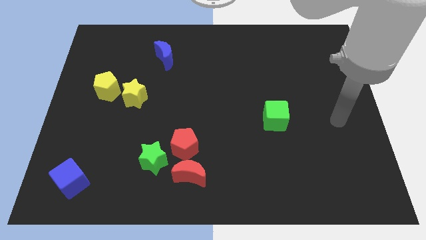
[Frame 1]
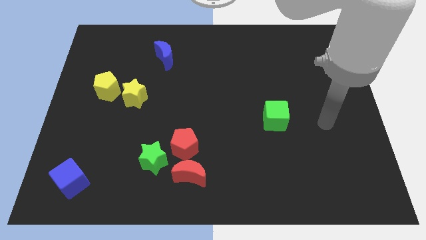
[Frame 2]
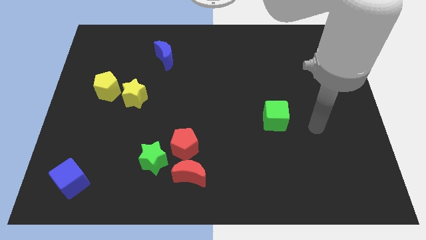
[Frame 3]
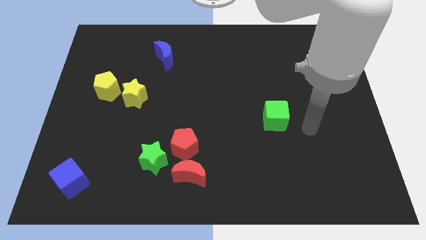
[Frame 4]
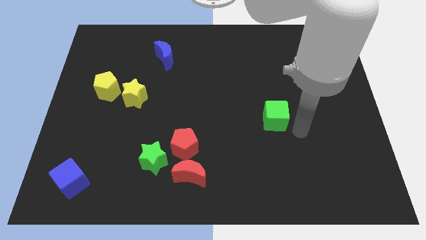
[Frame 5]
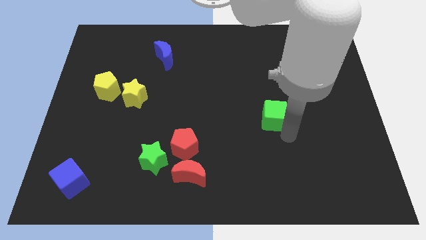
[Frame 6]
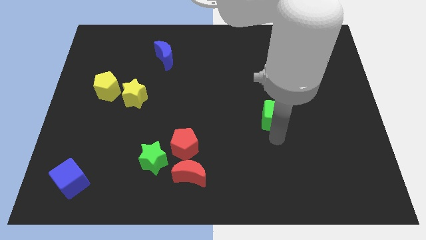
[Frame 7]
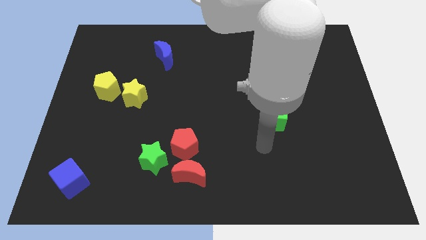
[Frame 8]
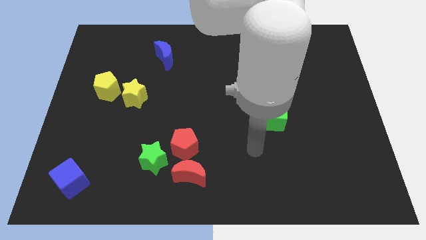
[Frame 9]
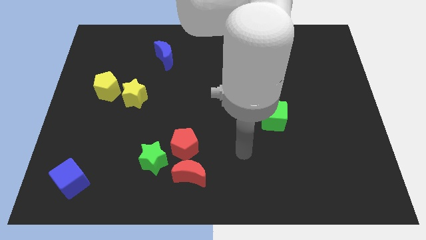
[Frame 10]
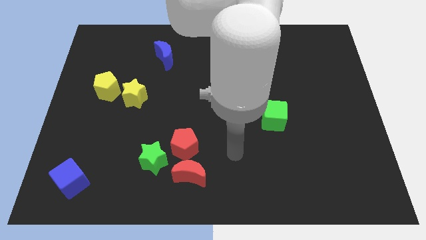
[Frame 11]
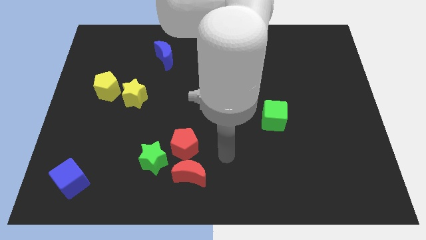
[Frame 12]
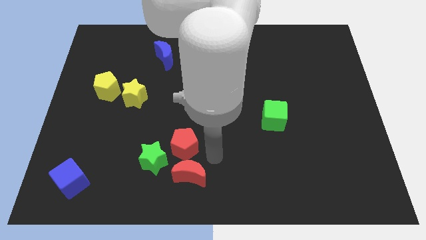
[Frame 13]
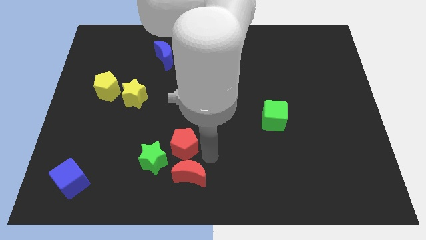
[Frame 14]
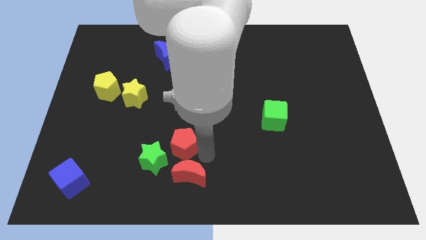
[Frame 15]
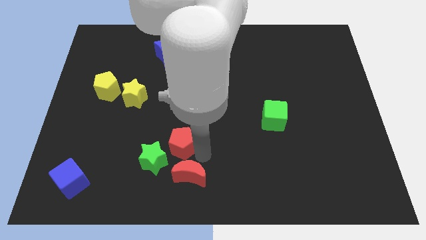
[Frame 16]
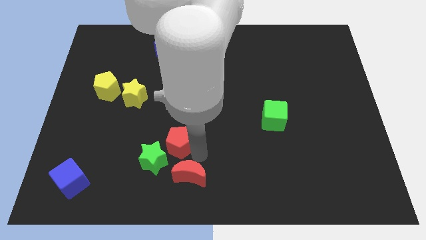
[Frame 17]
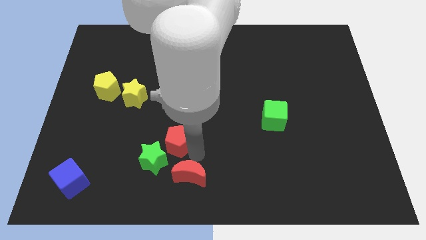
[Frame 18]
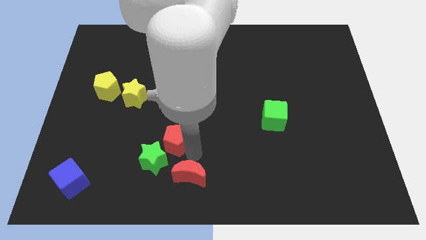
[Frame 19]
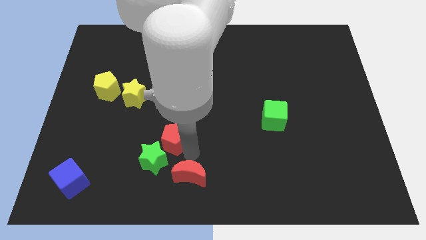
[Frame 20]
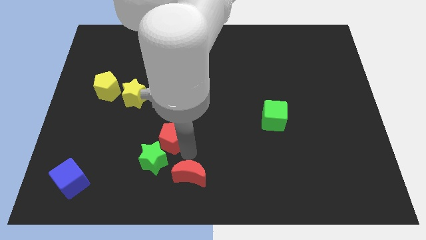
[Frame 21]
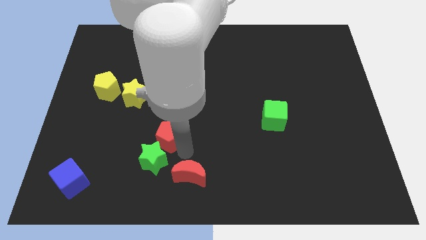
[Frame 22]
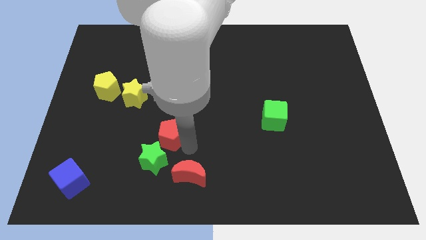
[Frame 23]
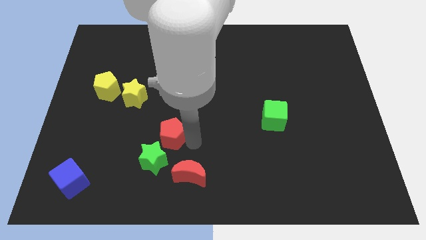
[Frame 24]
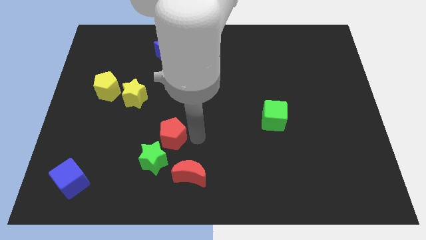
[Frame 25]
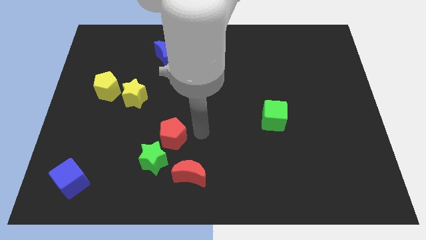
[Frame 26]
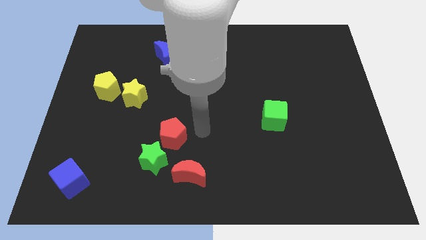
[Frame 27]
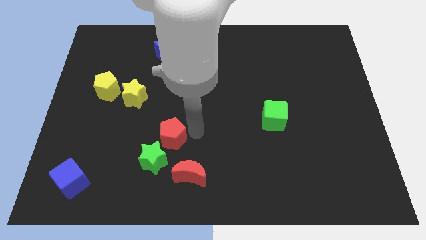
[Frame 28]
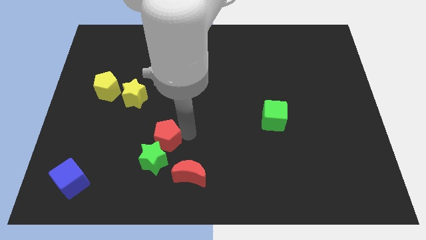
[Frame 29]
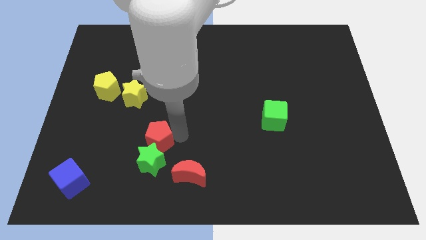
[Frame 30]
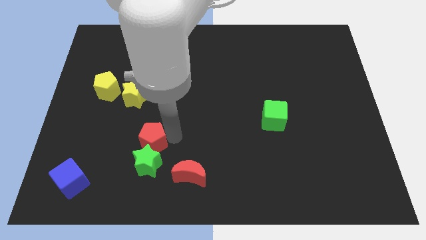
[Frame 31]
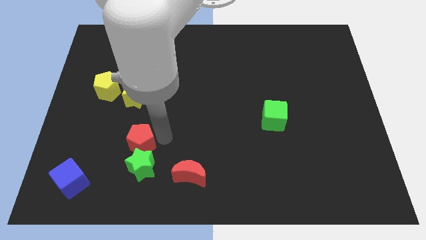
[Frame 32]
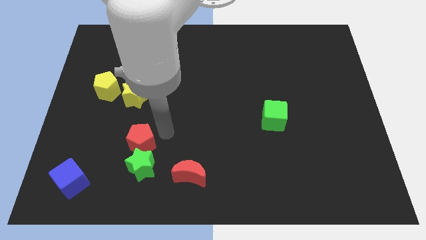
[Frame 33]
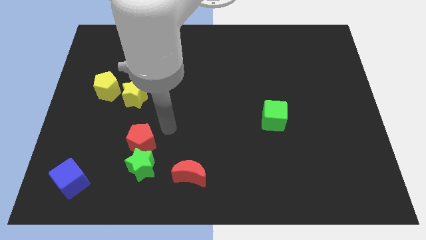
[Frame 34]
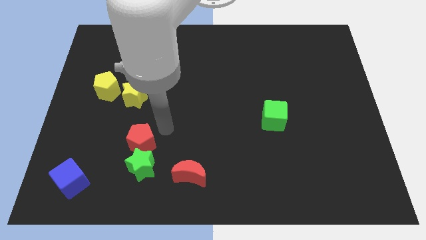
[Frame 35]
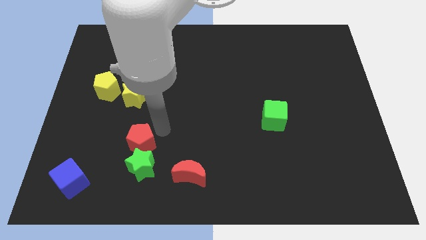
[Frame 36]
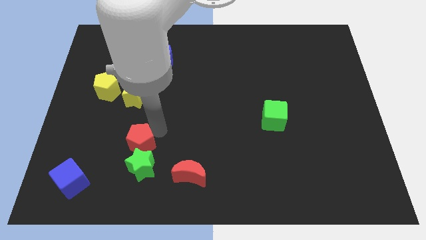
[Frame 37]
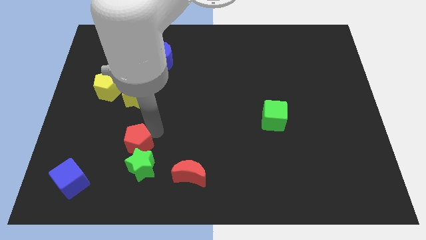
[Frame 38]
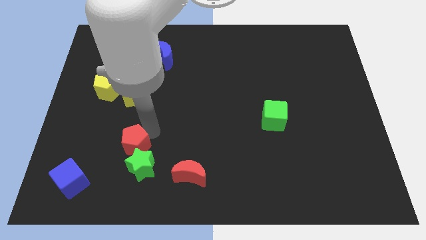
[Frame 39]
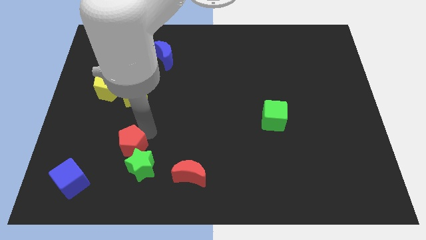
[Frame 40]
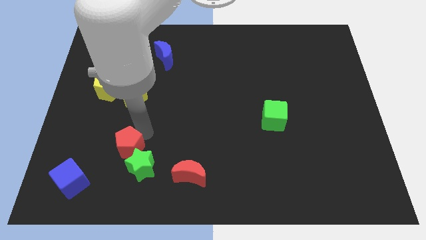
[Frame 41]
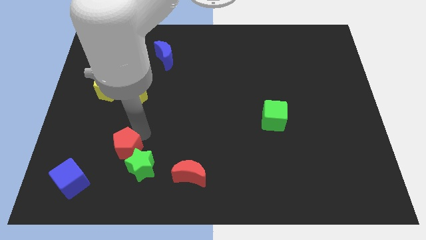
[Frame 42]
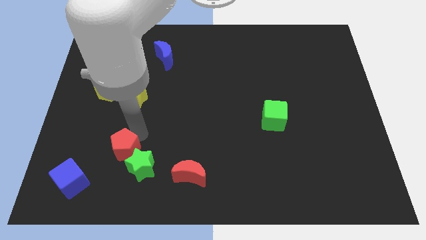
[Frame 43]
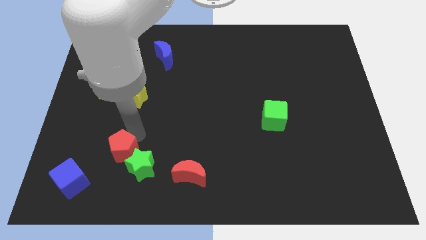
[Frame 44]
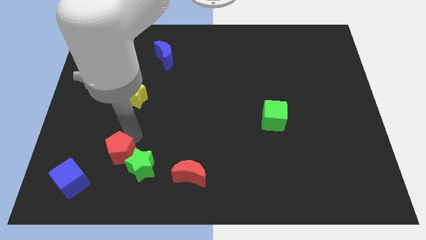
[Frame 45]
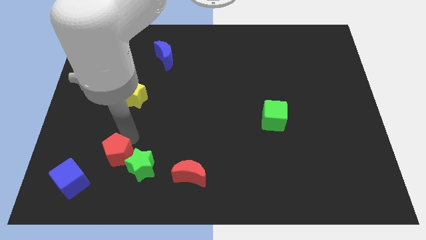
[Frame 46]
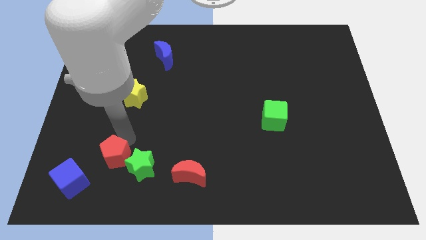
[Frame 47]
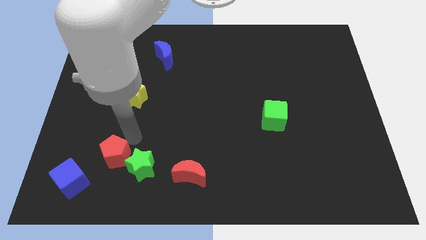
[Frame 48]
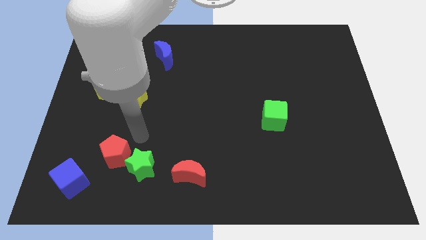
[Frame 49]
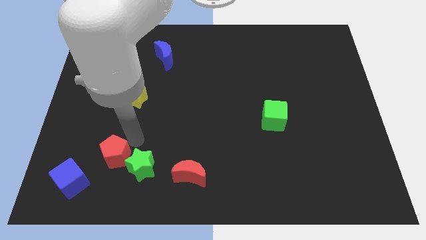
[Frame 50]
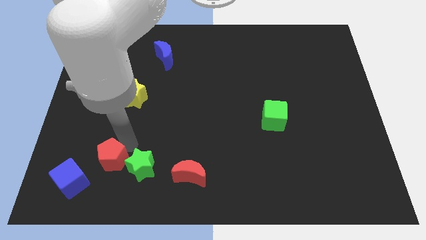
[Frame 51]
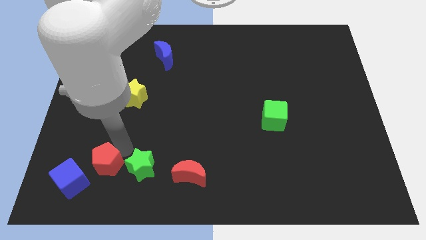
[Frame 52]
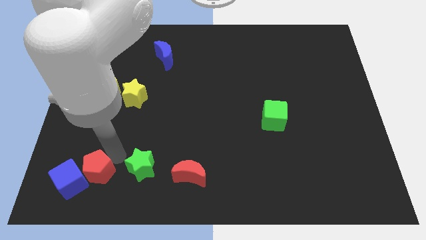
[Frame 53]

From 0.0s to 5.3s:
move the red pentagon next to the blue cube

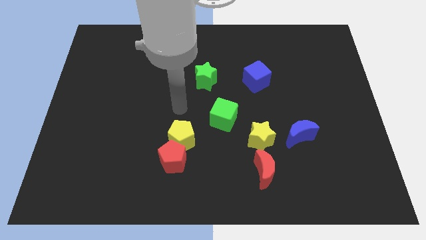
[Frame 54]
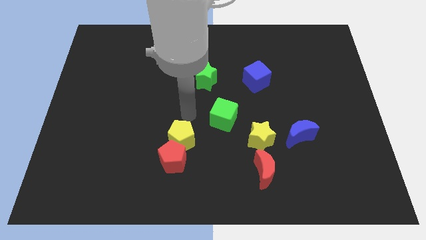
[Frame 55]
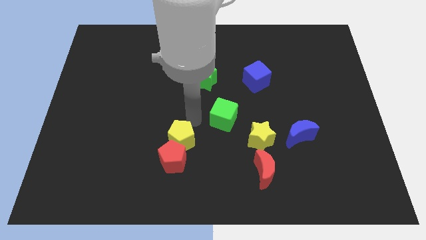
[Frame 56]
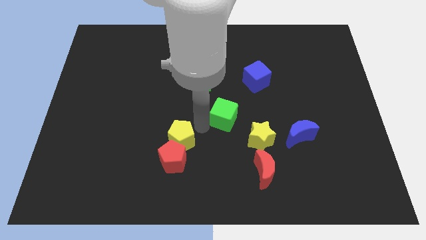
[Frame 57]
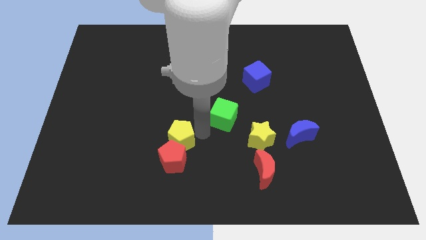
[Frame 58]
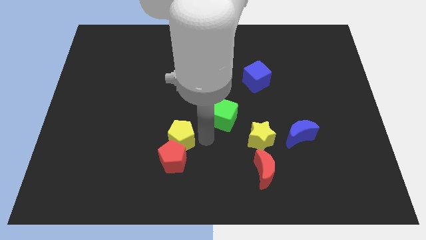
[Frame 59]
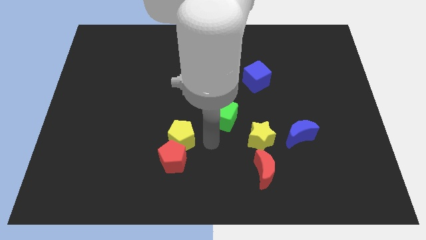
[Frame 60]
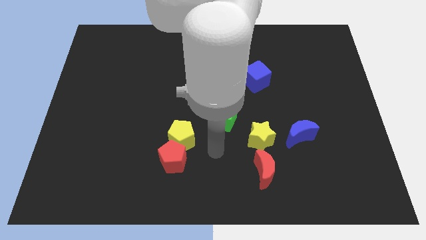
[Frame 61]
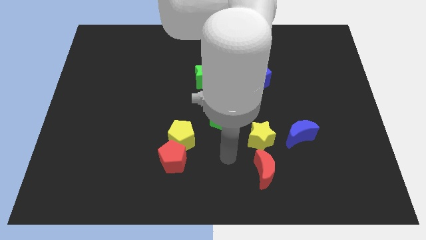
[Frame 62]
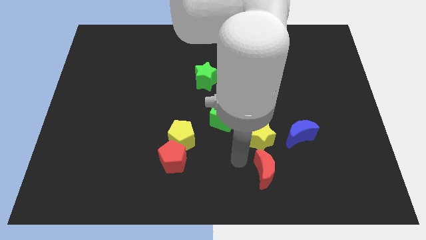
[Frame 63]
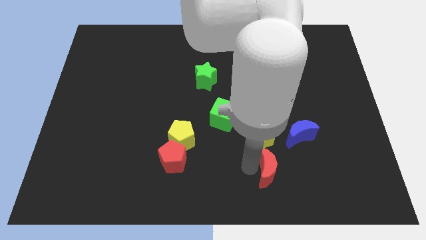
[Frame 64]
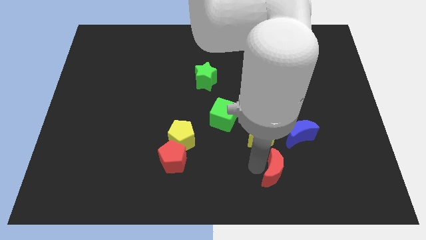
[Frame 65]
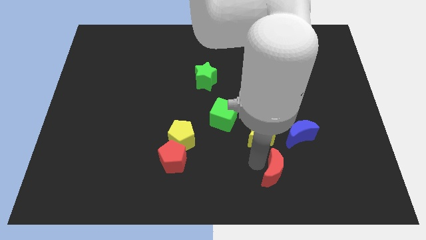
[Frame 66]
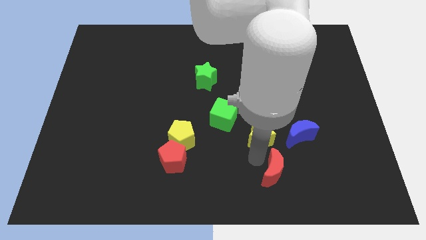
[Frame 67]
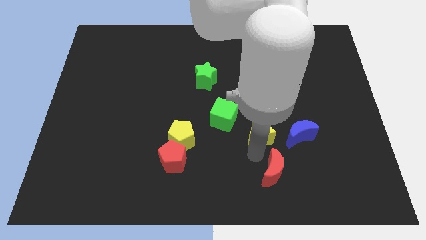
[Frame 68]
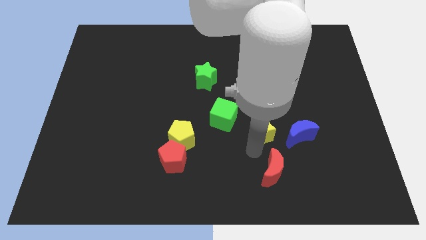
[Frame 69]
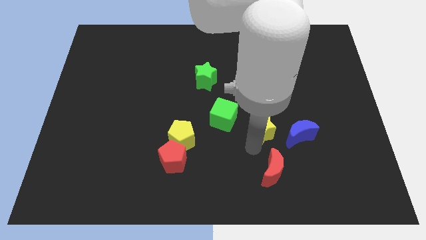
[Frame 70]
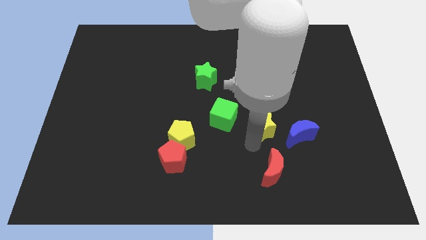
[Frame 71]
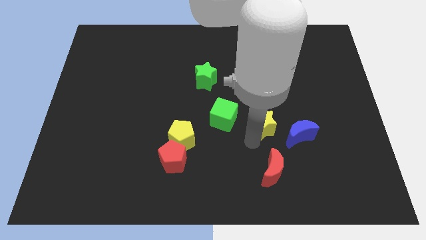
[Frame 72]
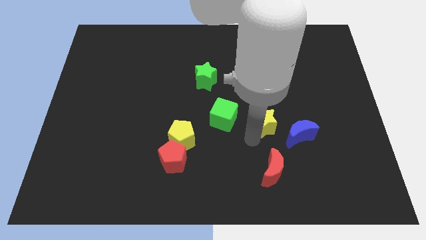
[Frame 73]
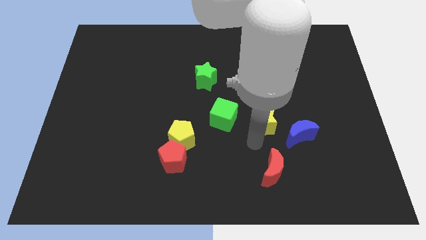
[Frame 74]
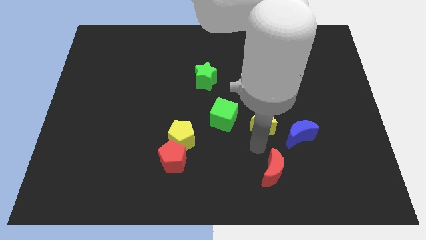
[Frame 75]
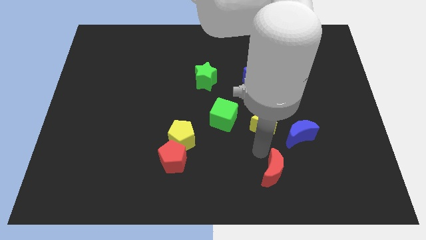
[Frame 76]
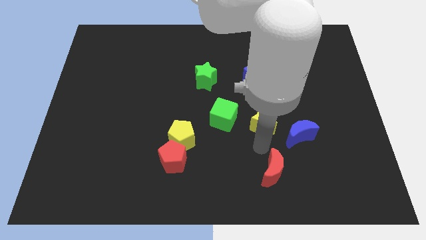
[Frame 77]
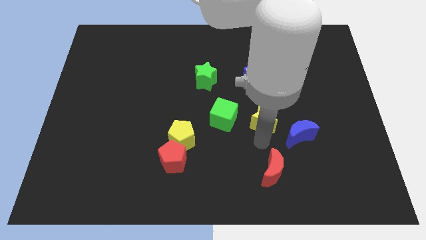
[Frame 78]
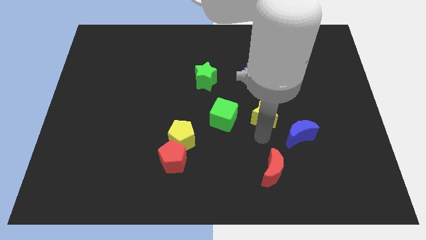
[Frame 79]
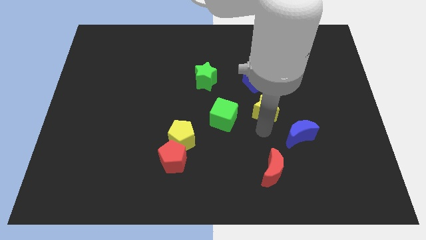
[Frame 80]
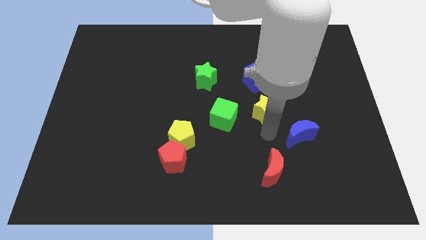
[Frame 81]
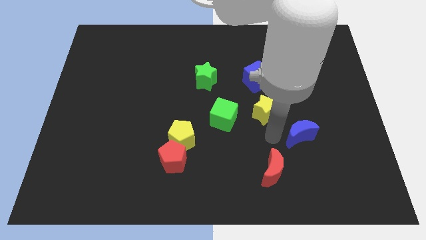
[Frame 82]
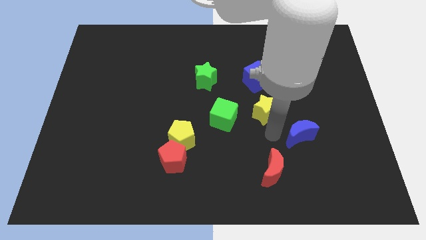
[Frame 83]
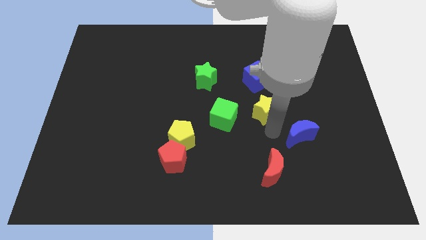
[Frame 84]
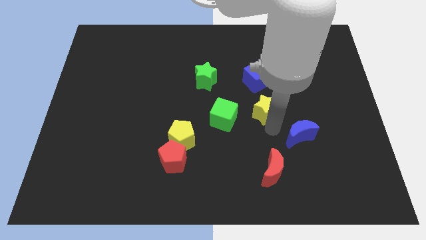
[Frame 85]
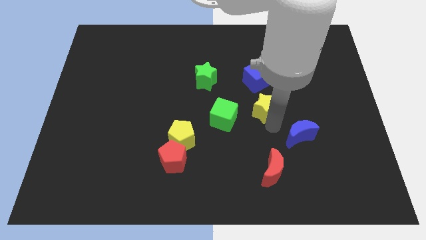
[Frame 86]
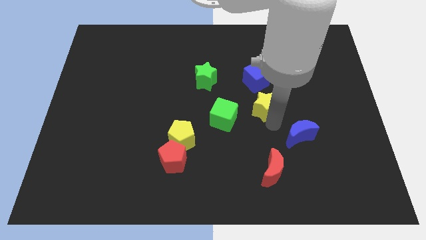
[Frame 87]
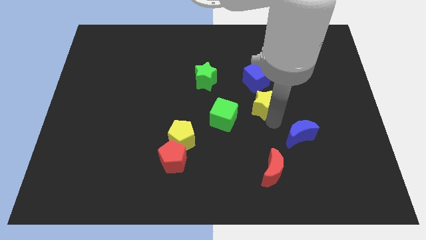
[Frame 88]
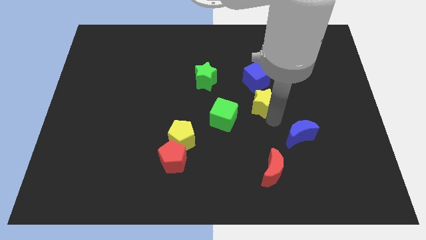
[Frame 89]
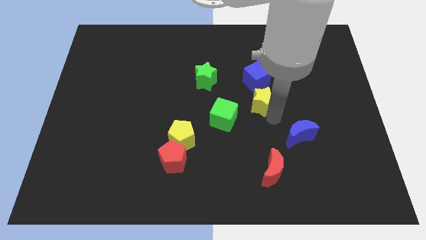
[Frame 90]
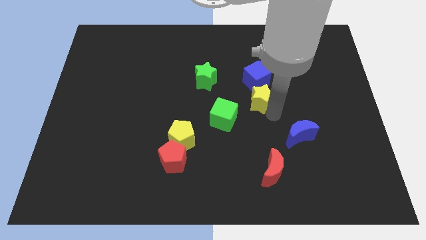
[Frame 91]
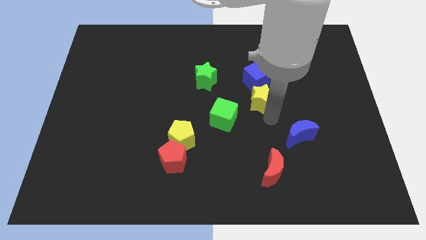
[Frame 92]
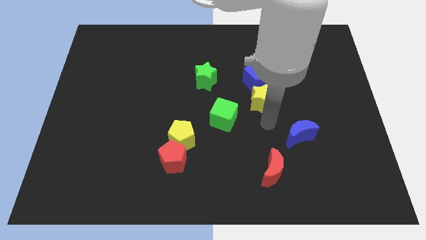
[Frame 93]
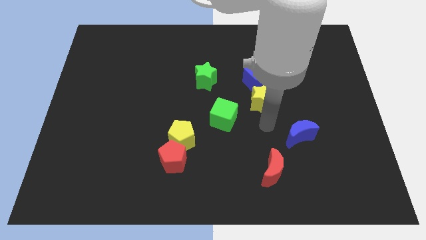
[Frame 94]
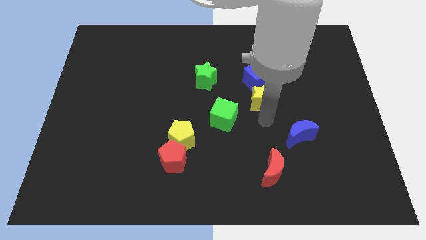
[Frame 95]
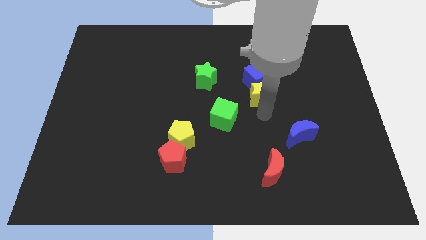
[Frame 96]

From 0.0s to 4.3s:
push the yellow star towards the blue cube
